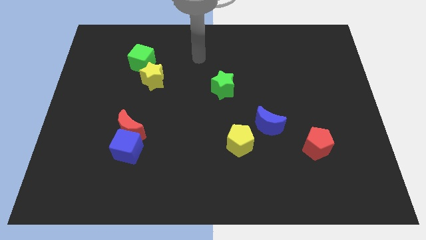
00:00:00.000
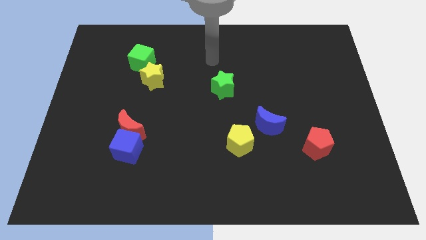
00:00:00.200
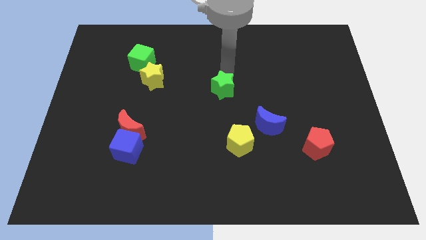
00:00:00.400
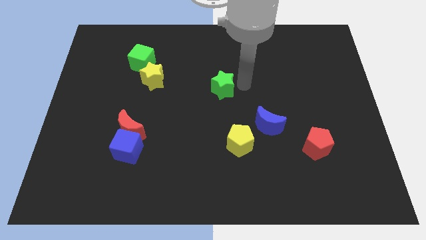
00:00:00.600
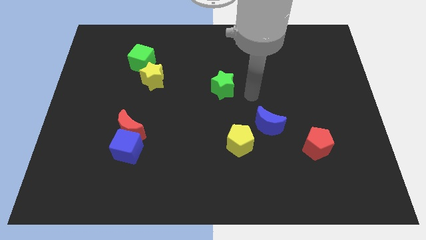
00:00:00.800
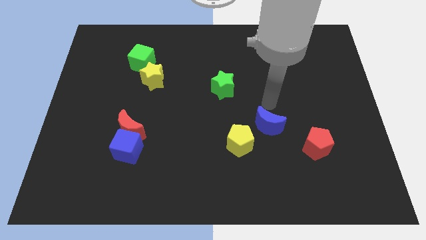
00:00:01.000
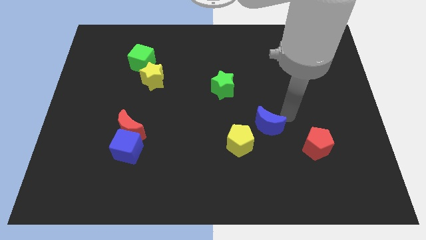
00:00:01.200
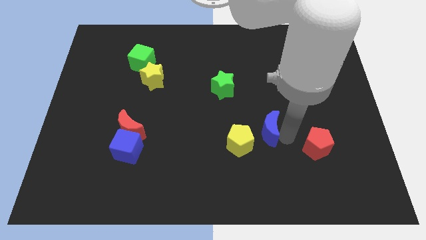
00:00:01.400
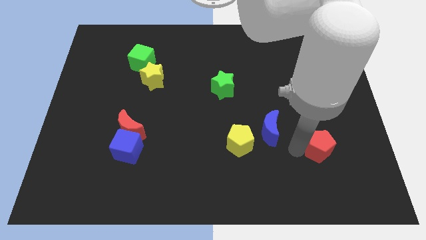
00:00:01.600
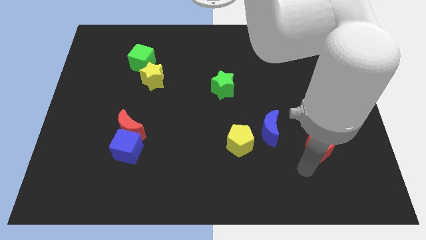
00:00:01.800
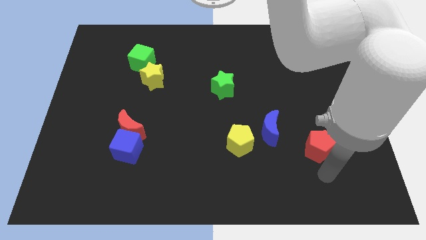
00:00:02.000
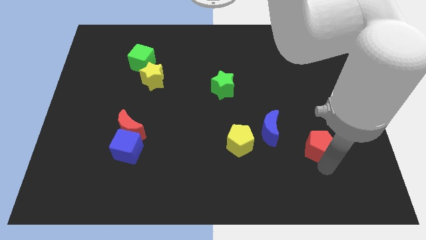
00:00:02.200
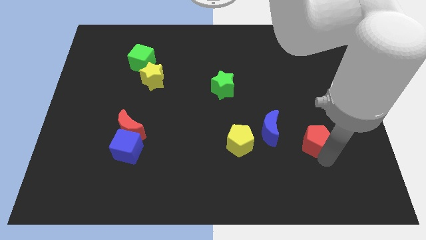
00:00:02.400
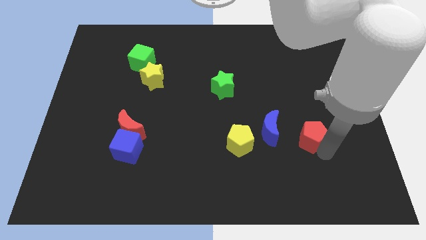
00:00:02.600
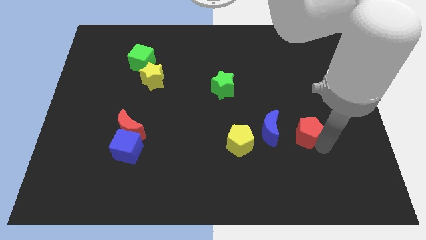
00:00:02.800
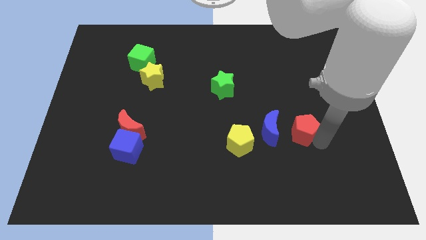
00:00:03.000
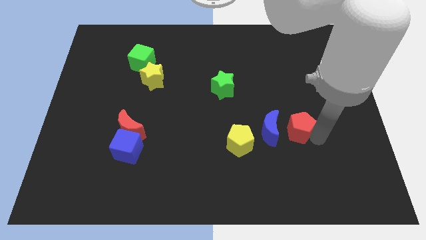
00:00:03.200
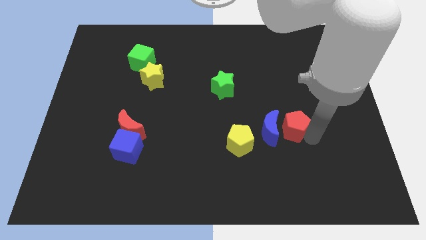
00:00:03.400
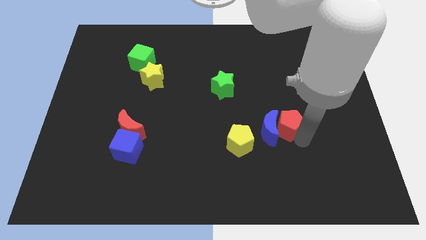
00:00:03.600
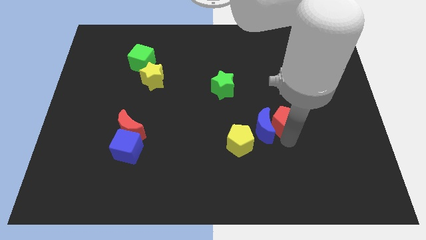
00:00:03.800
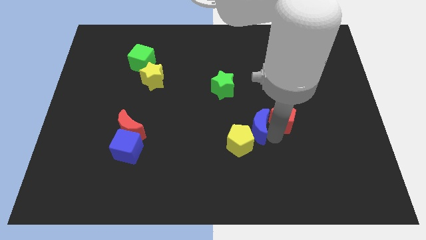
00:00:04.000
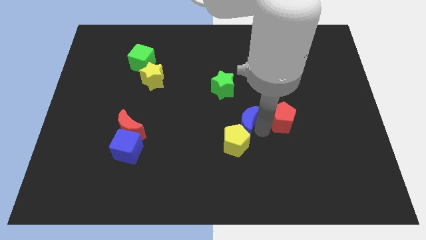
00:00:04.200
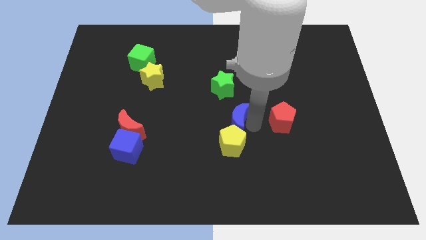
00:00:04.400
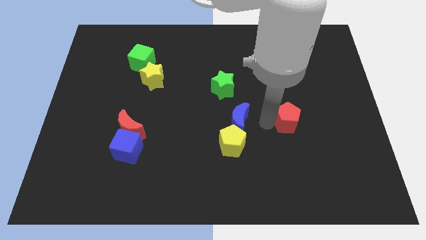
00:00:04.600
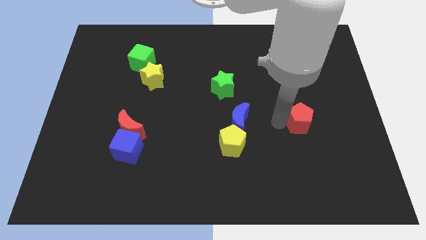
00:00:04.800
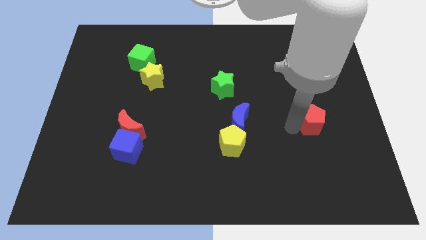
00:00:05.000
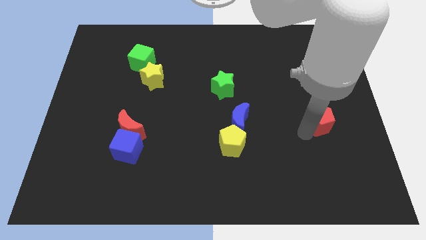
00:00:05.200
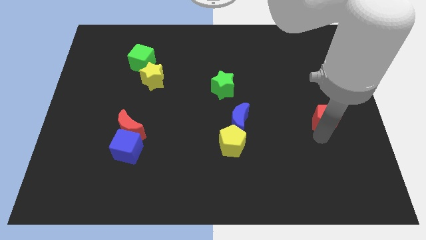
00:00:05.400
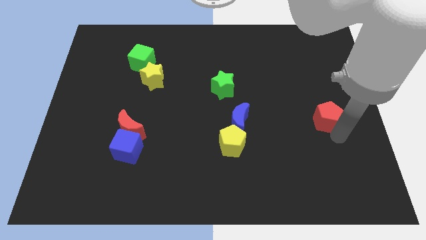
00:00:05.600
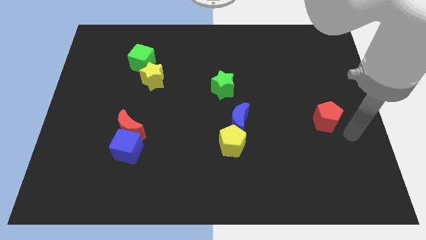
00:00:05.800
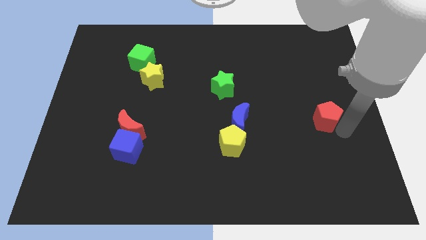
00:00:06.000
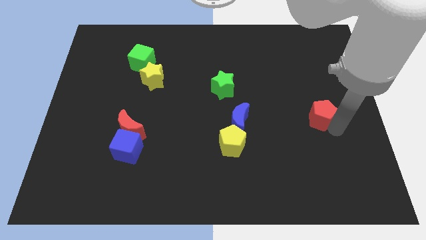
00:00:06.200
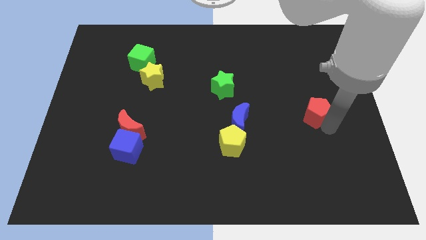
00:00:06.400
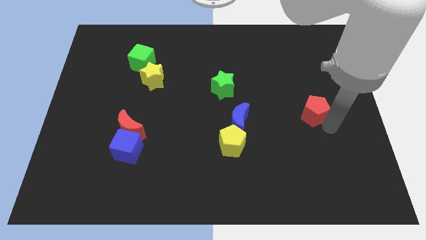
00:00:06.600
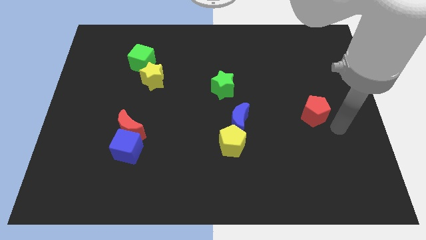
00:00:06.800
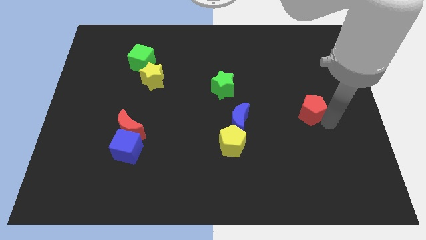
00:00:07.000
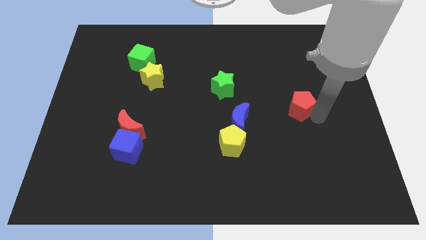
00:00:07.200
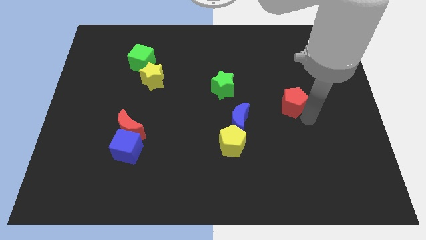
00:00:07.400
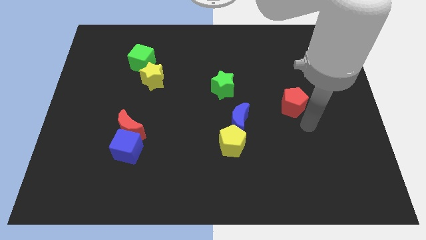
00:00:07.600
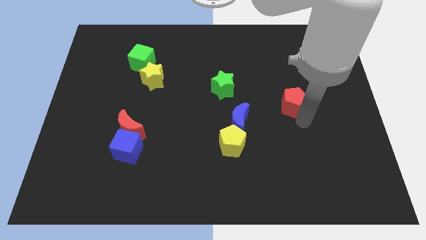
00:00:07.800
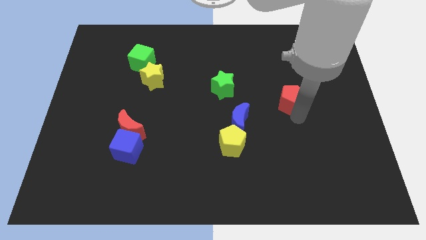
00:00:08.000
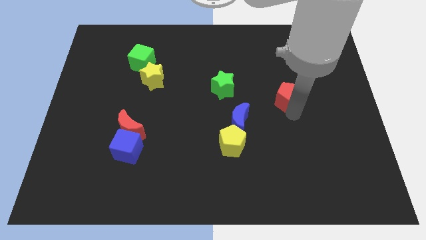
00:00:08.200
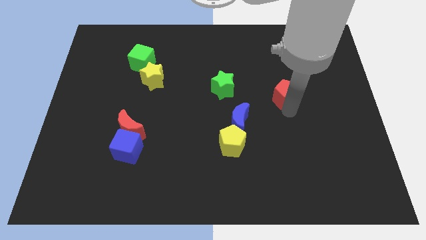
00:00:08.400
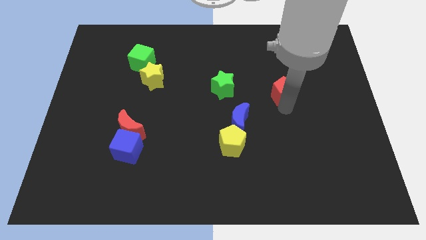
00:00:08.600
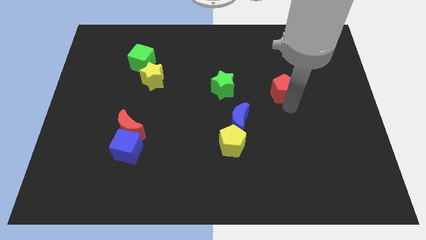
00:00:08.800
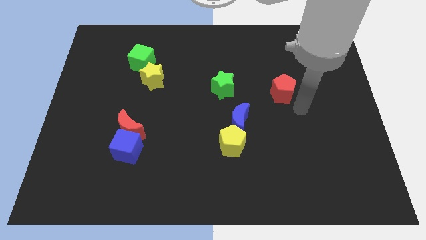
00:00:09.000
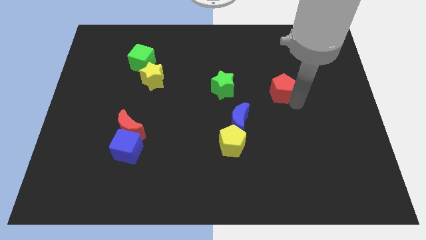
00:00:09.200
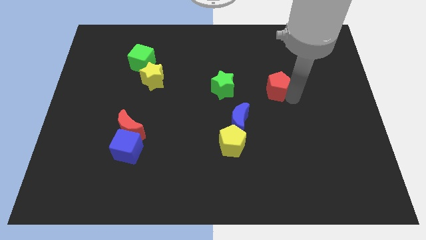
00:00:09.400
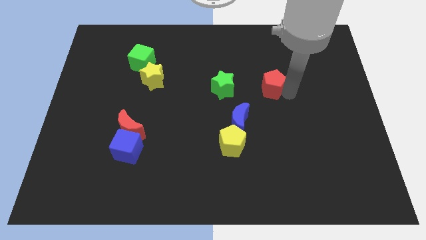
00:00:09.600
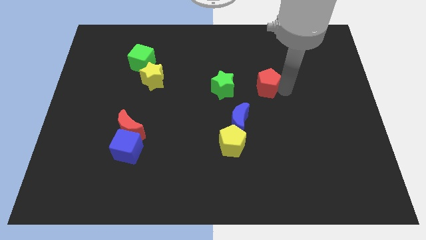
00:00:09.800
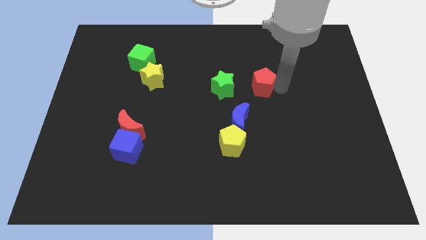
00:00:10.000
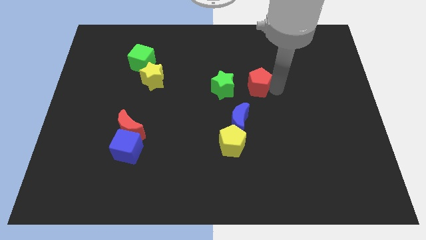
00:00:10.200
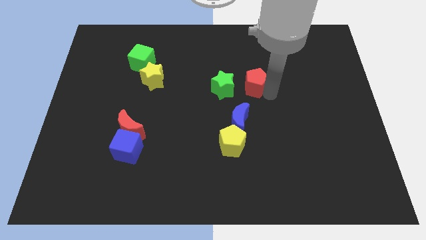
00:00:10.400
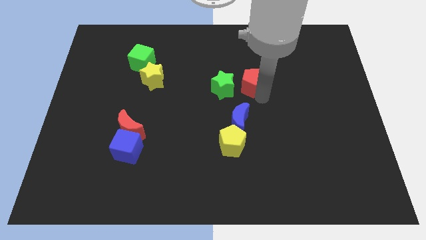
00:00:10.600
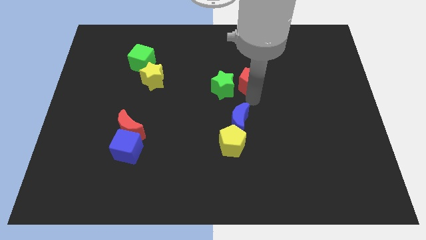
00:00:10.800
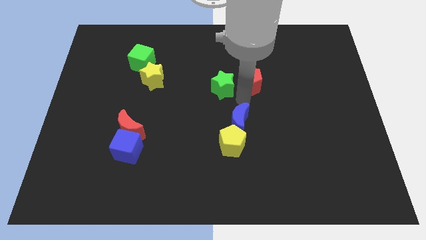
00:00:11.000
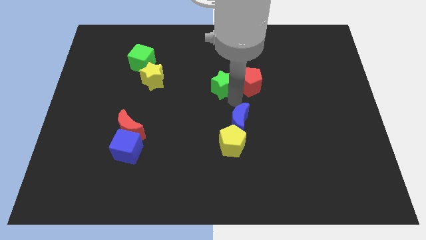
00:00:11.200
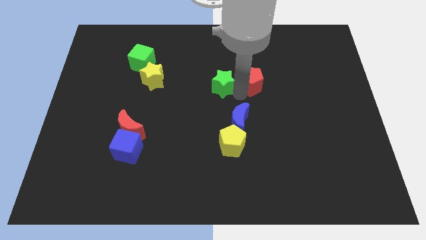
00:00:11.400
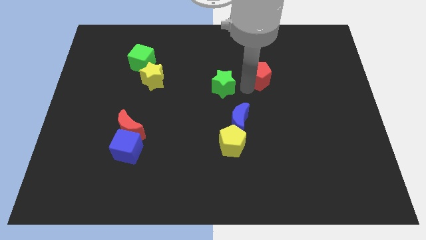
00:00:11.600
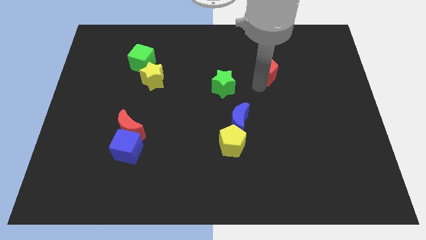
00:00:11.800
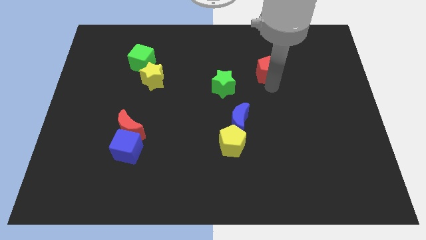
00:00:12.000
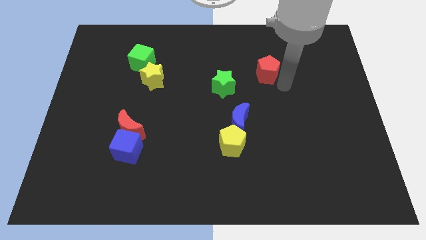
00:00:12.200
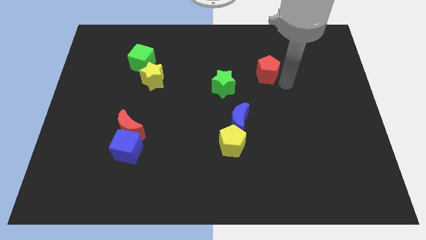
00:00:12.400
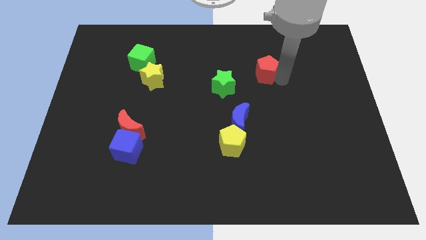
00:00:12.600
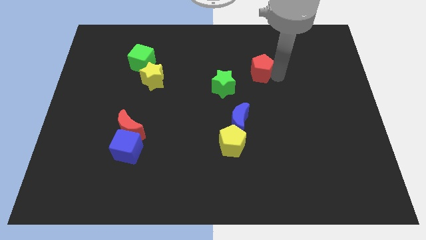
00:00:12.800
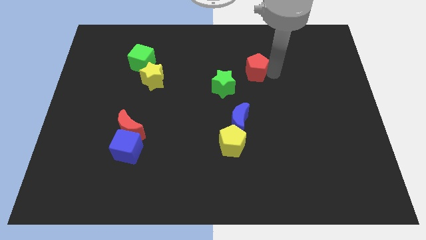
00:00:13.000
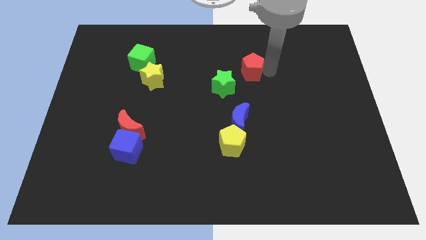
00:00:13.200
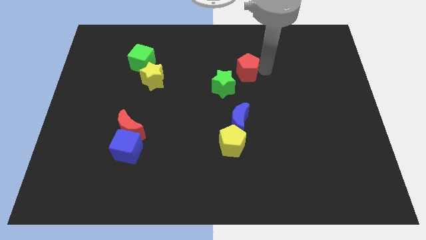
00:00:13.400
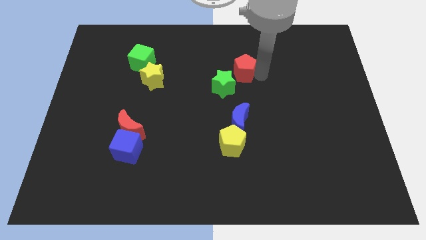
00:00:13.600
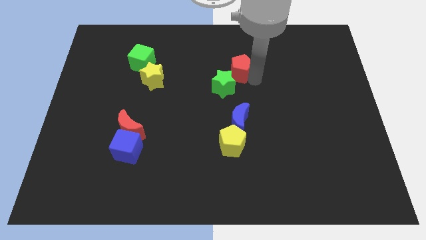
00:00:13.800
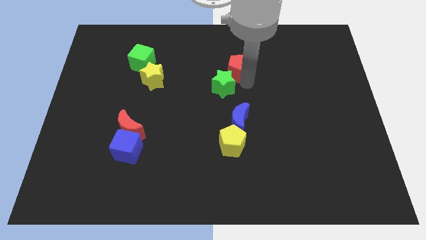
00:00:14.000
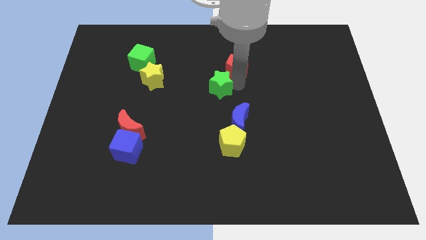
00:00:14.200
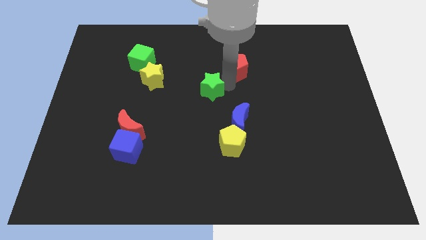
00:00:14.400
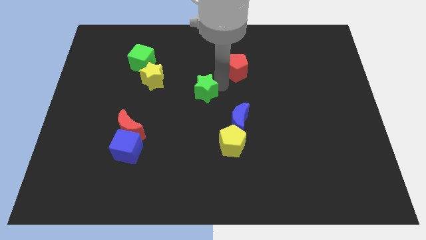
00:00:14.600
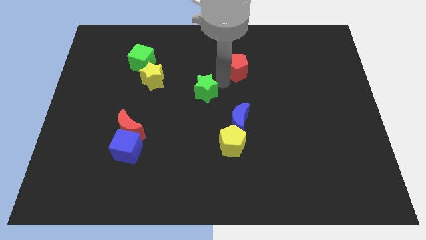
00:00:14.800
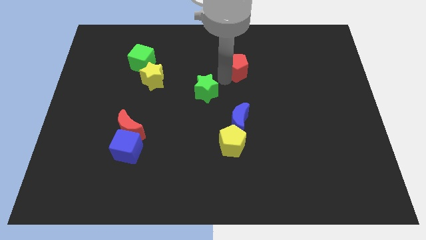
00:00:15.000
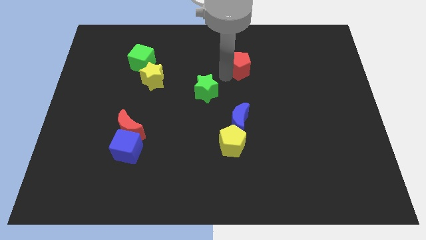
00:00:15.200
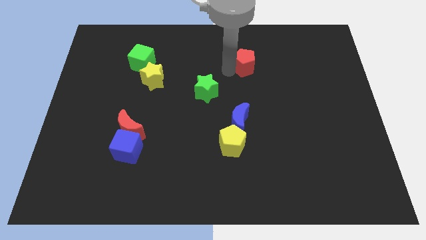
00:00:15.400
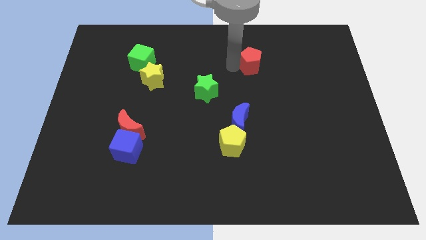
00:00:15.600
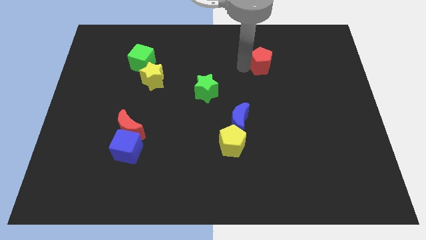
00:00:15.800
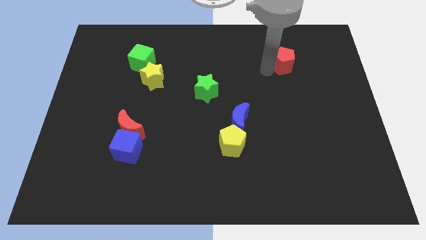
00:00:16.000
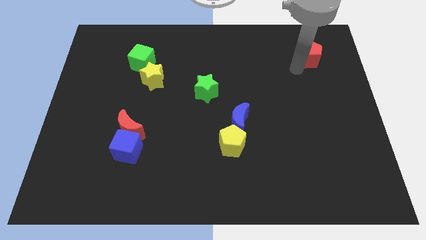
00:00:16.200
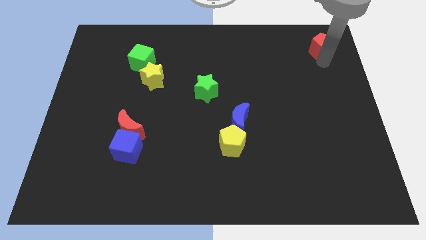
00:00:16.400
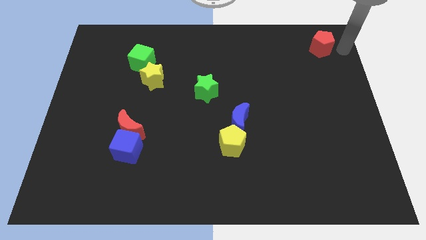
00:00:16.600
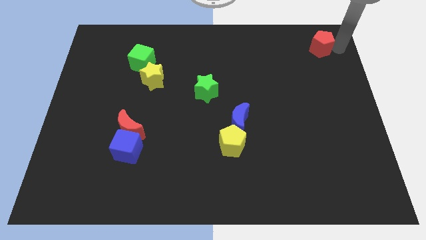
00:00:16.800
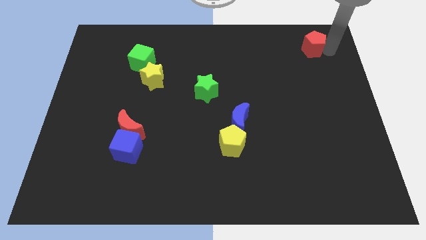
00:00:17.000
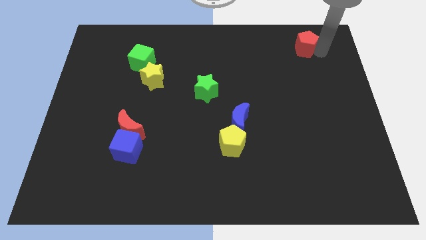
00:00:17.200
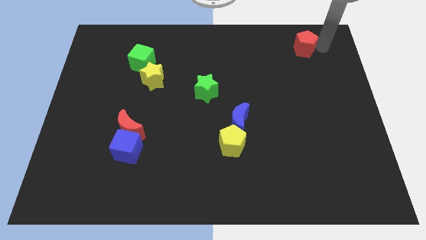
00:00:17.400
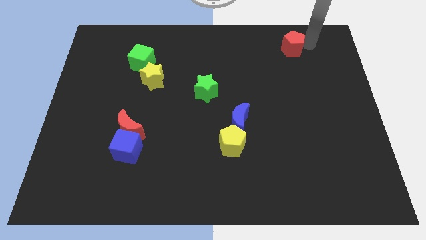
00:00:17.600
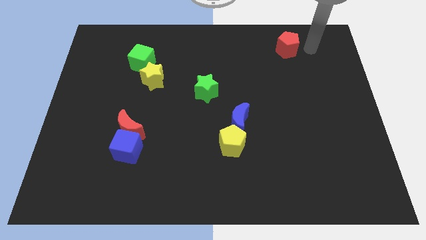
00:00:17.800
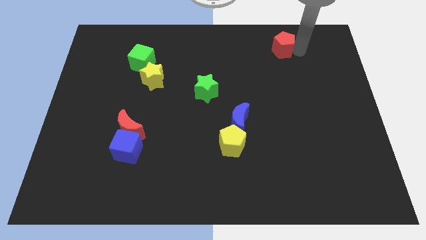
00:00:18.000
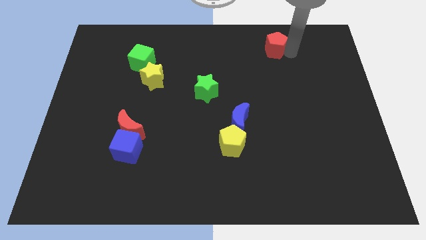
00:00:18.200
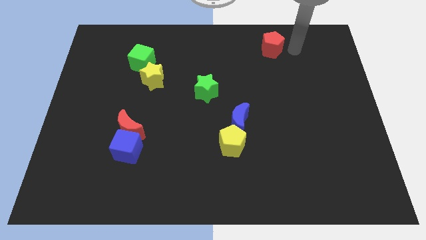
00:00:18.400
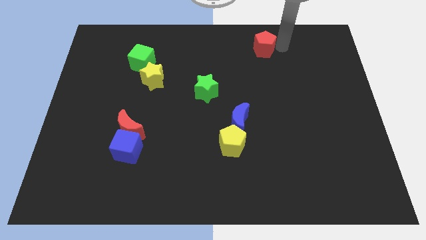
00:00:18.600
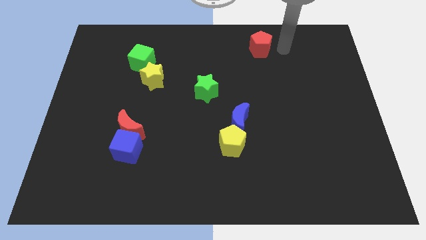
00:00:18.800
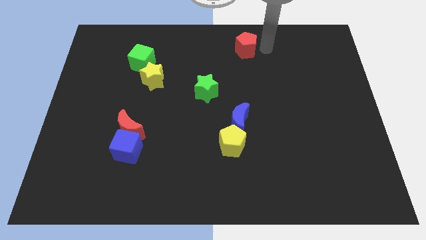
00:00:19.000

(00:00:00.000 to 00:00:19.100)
move the red pentagon to the top
